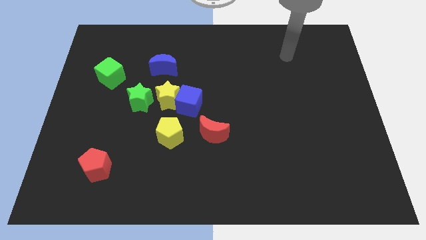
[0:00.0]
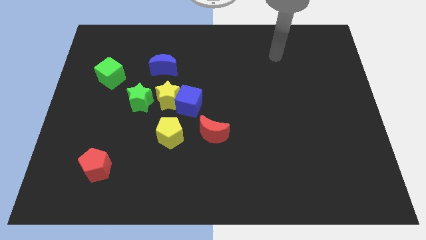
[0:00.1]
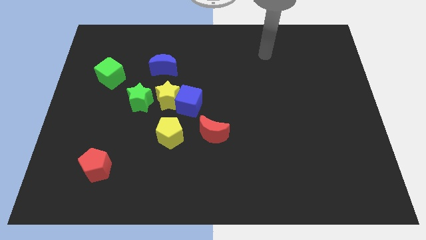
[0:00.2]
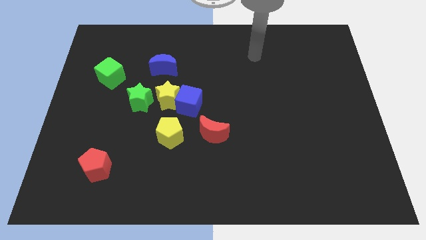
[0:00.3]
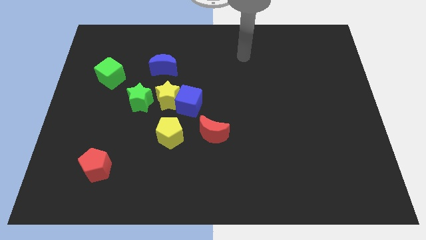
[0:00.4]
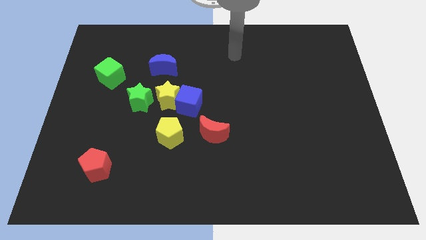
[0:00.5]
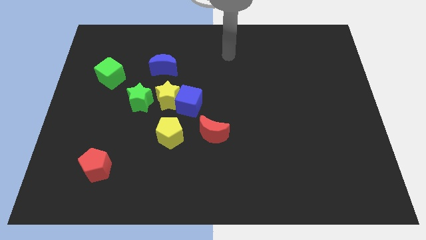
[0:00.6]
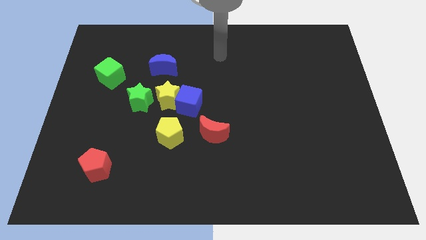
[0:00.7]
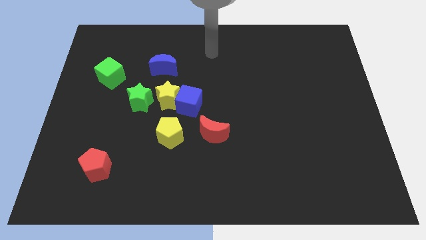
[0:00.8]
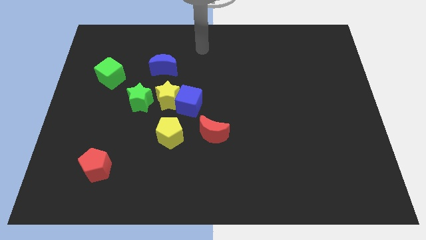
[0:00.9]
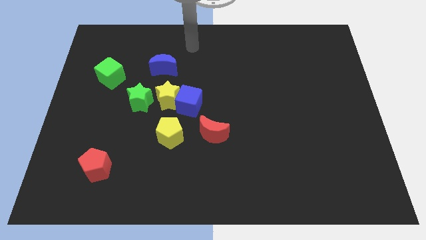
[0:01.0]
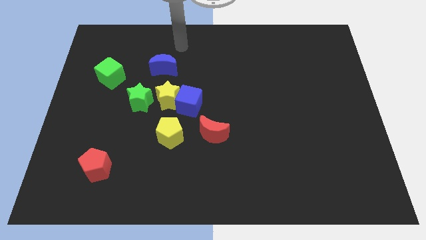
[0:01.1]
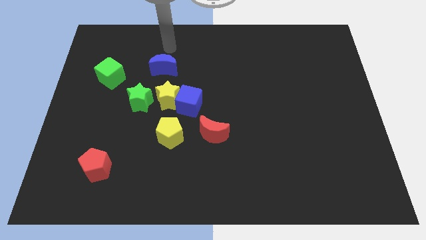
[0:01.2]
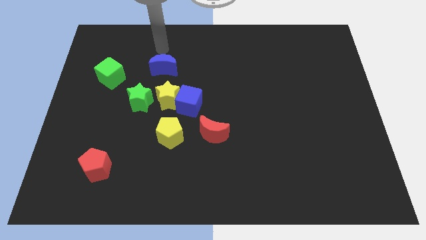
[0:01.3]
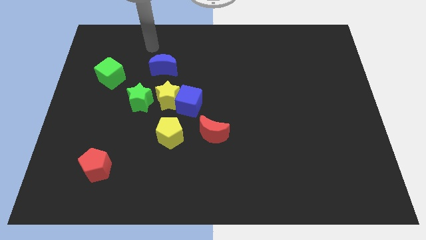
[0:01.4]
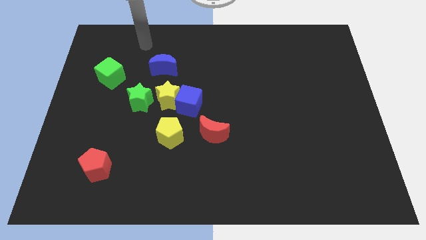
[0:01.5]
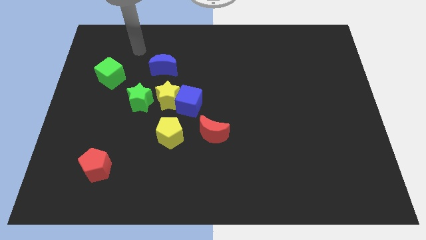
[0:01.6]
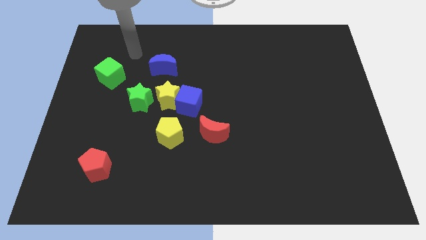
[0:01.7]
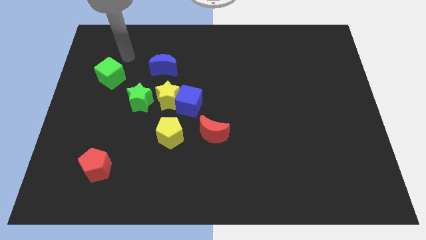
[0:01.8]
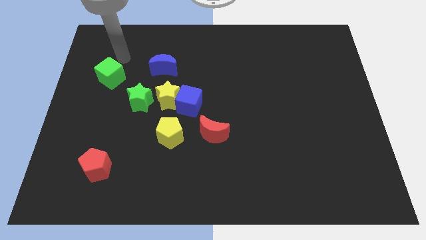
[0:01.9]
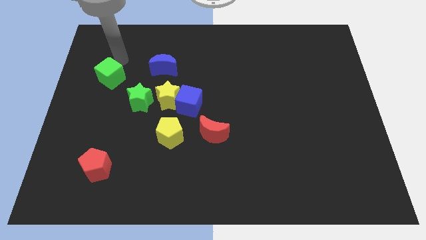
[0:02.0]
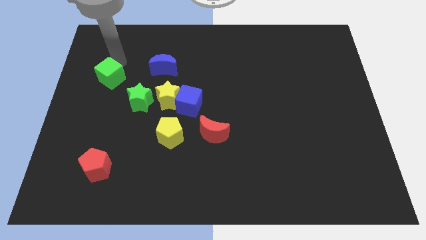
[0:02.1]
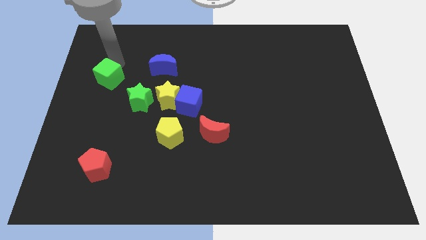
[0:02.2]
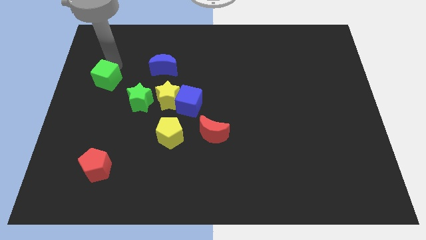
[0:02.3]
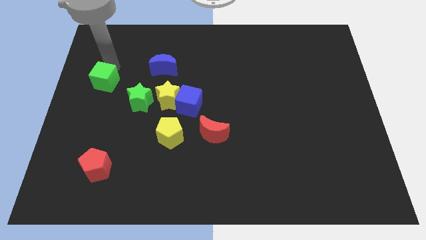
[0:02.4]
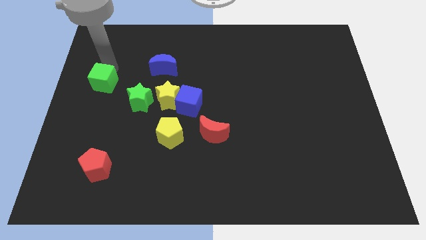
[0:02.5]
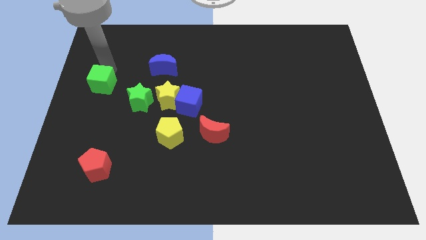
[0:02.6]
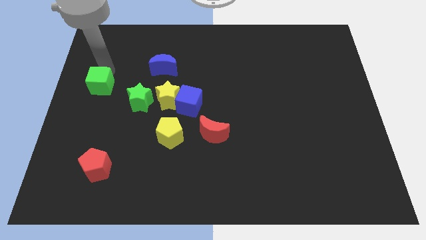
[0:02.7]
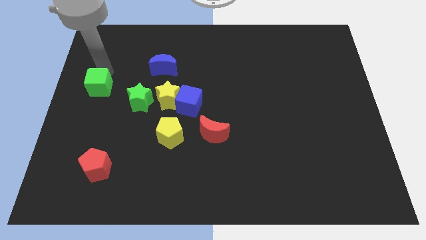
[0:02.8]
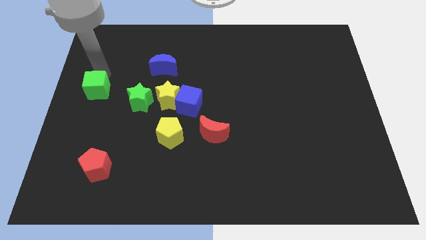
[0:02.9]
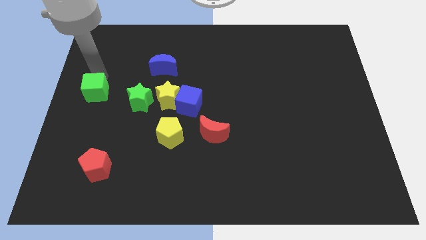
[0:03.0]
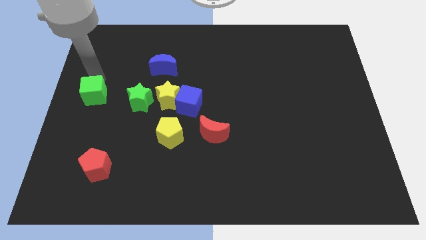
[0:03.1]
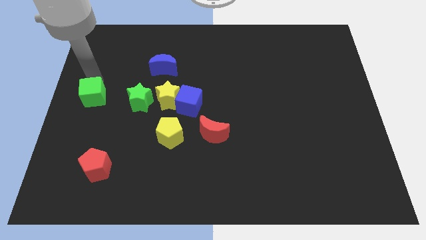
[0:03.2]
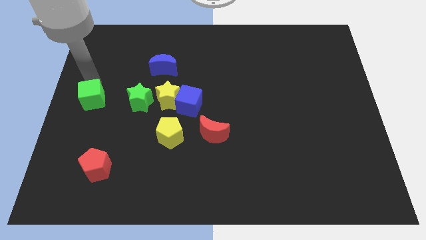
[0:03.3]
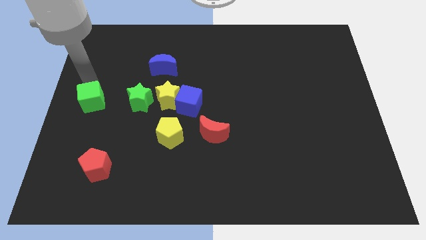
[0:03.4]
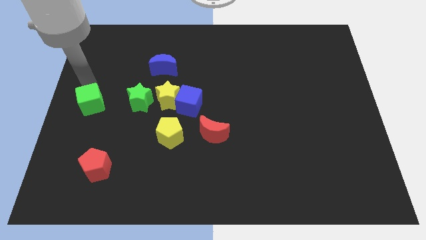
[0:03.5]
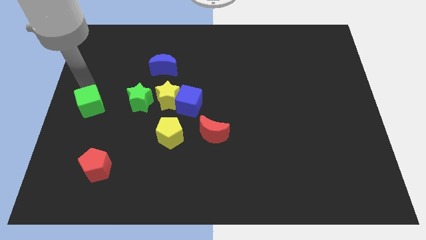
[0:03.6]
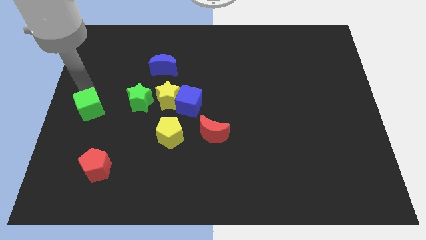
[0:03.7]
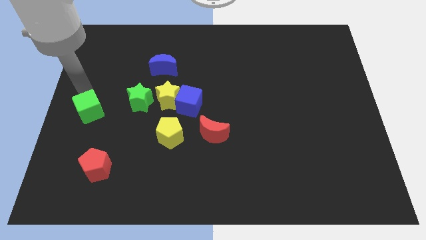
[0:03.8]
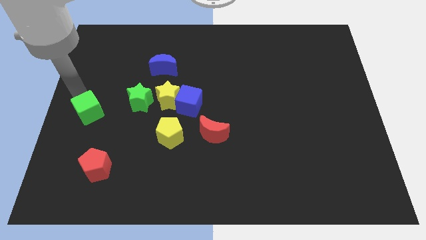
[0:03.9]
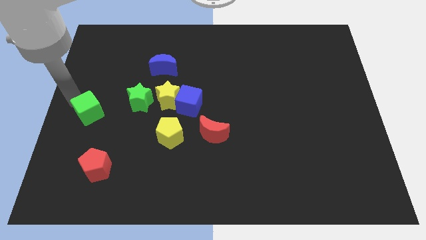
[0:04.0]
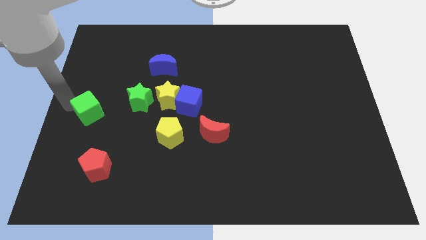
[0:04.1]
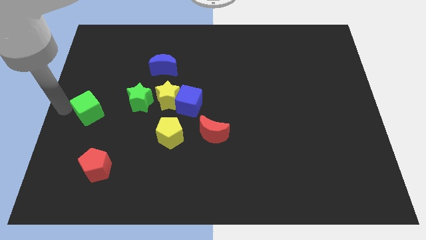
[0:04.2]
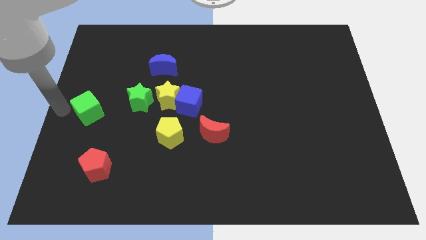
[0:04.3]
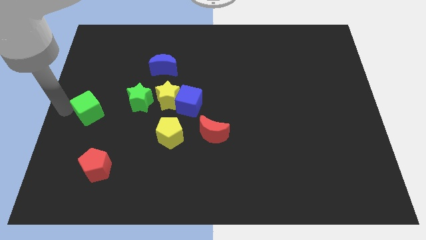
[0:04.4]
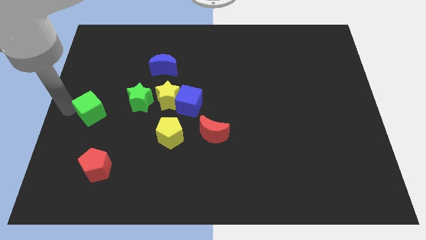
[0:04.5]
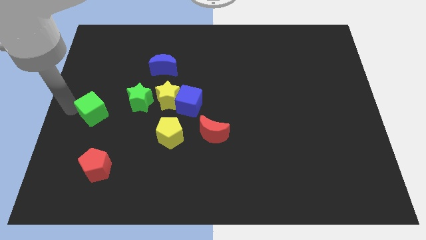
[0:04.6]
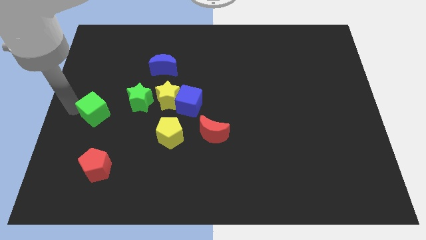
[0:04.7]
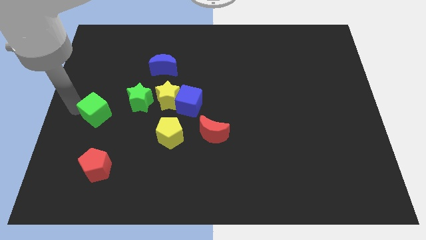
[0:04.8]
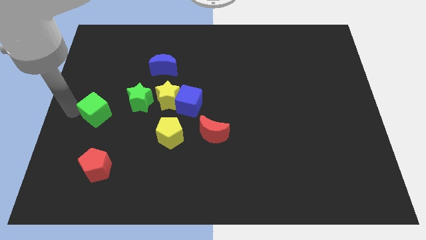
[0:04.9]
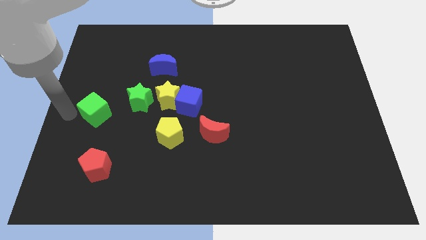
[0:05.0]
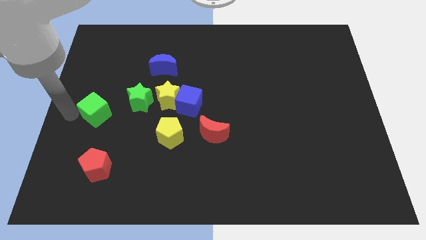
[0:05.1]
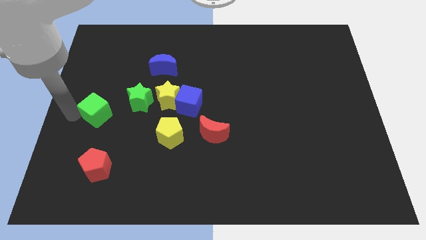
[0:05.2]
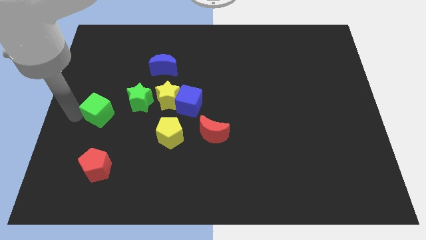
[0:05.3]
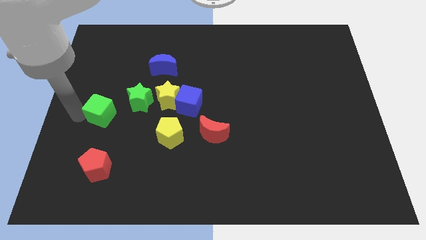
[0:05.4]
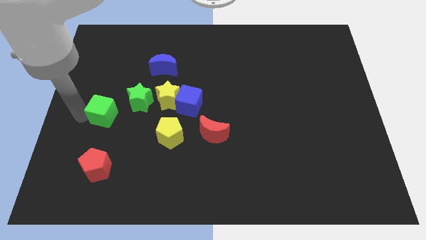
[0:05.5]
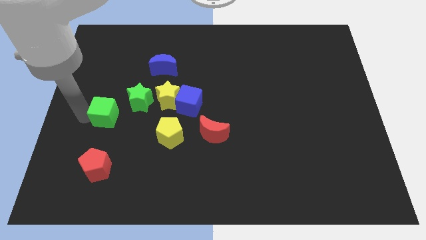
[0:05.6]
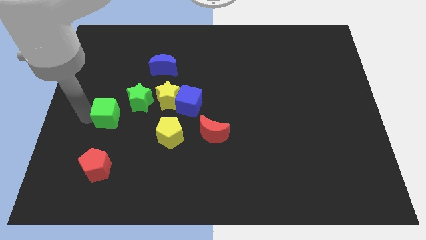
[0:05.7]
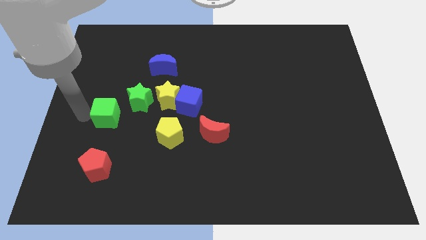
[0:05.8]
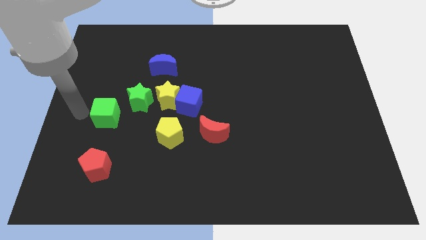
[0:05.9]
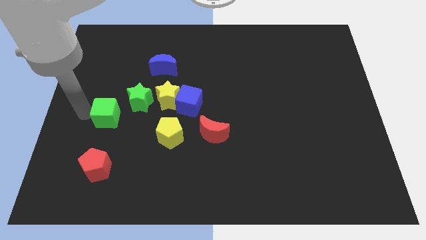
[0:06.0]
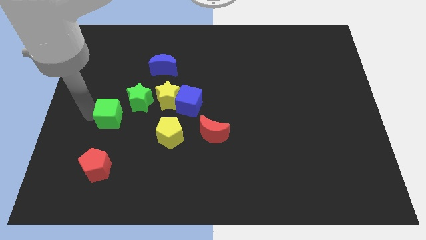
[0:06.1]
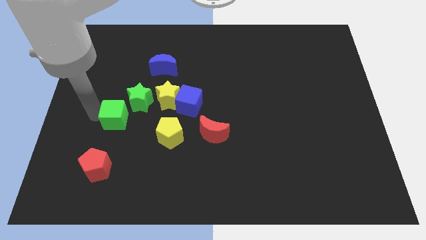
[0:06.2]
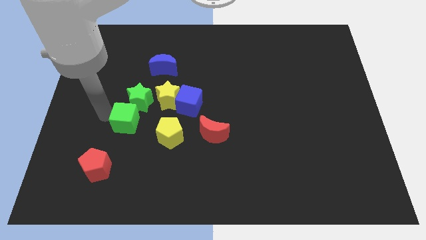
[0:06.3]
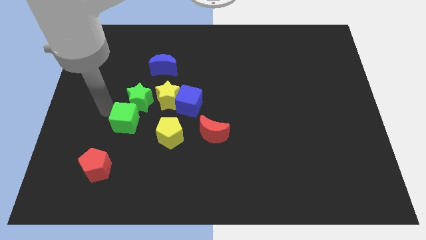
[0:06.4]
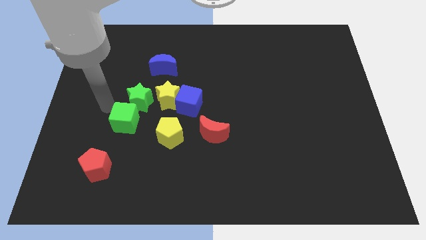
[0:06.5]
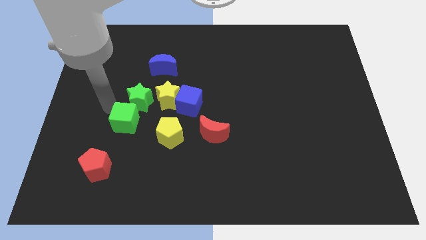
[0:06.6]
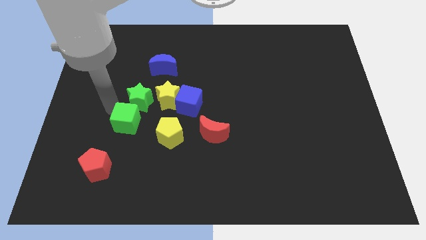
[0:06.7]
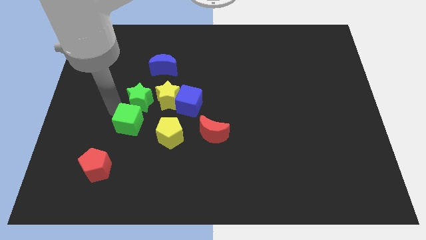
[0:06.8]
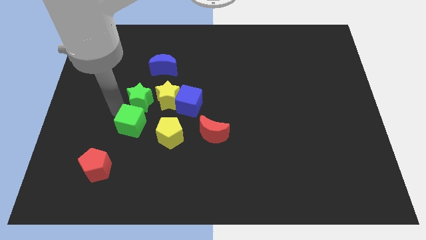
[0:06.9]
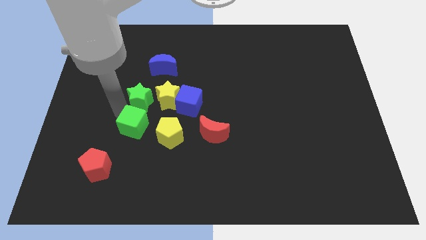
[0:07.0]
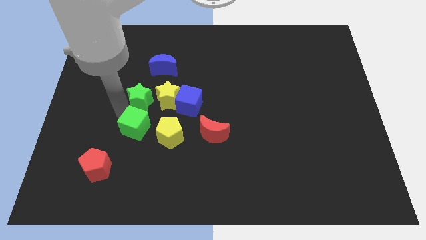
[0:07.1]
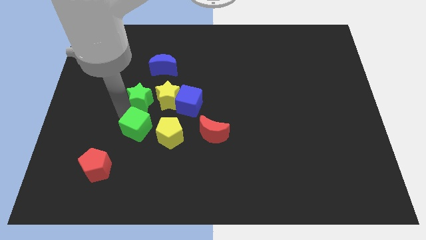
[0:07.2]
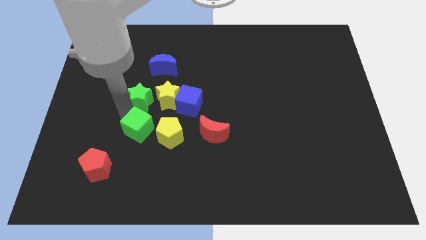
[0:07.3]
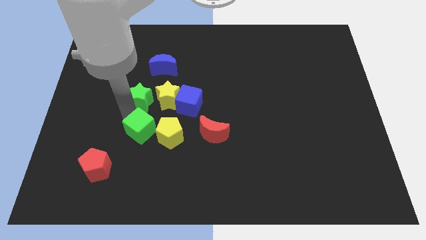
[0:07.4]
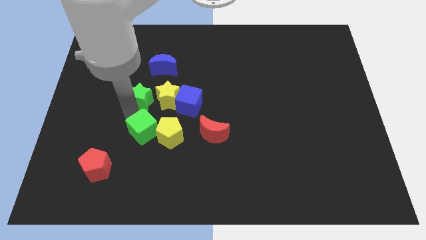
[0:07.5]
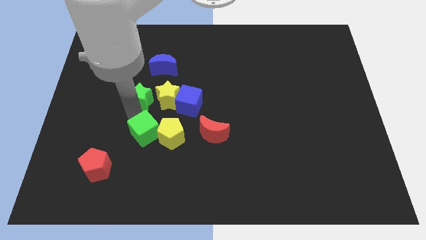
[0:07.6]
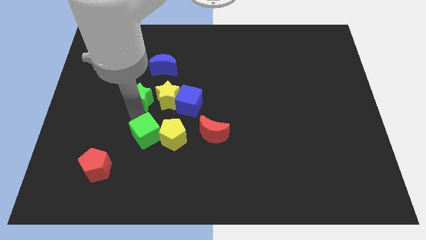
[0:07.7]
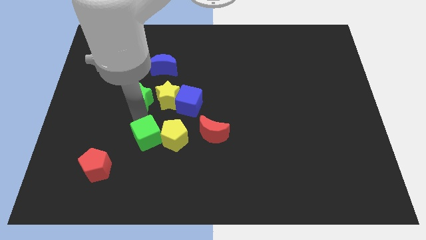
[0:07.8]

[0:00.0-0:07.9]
slide the green cube down and right

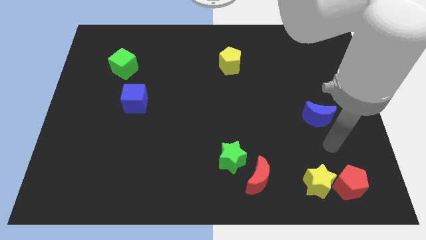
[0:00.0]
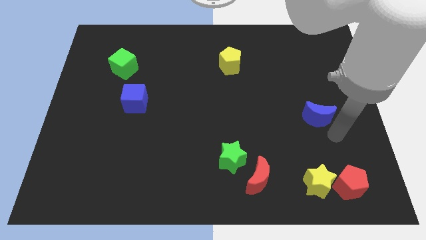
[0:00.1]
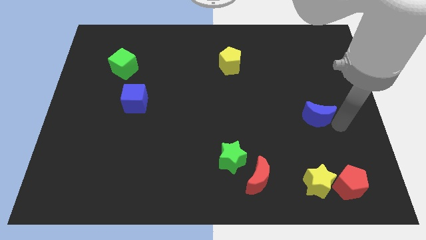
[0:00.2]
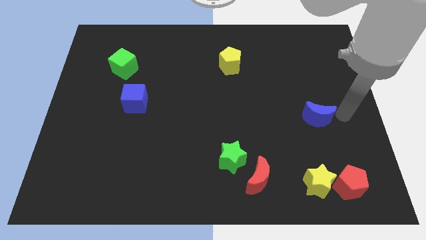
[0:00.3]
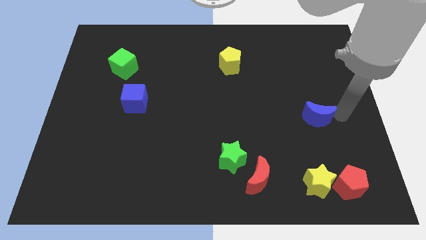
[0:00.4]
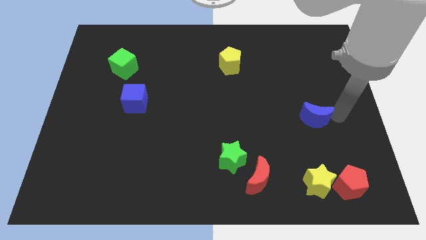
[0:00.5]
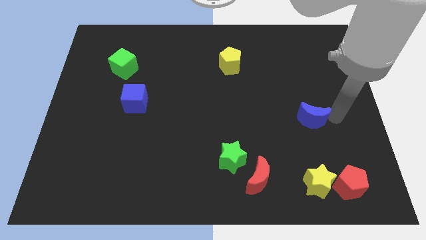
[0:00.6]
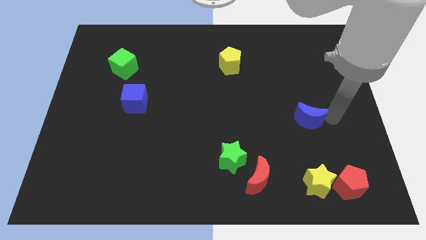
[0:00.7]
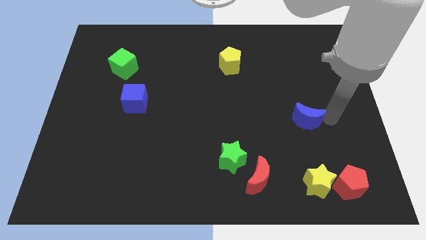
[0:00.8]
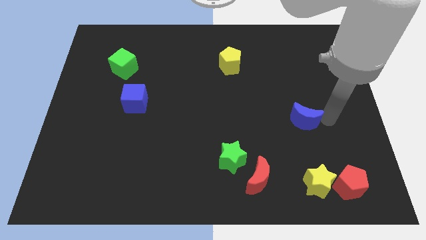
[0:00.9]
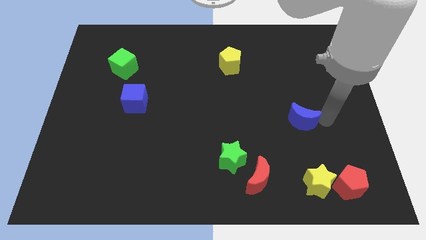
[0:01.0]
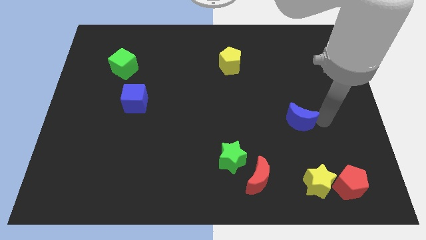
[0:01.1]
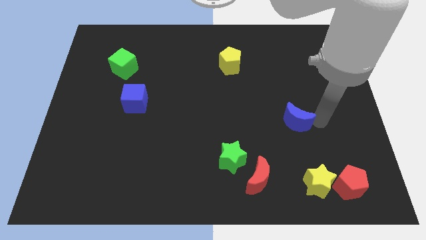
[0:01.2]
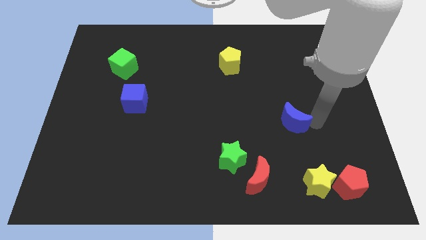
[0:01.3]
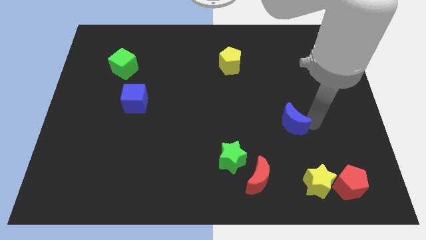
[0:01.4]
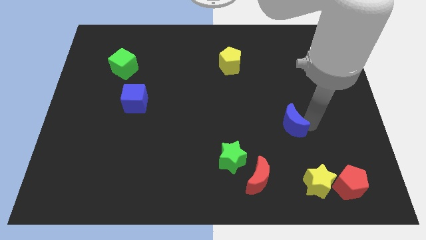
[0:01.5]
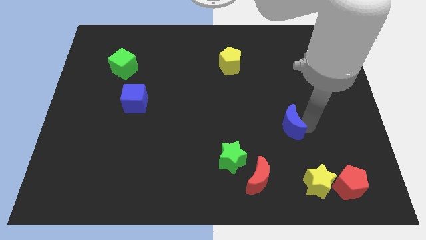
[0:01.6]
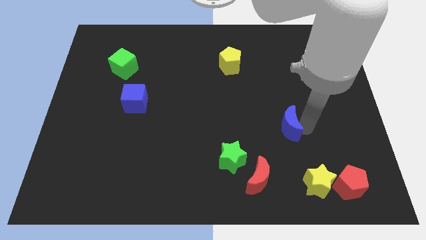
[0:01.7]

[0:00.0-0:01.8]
move the blue moon left a little
